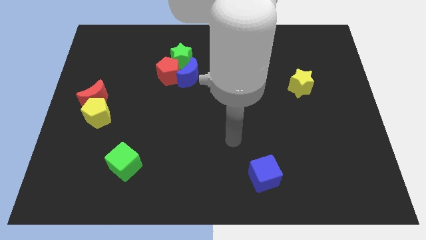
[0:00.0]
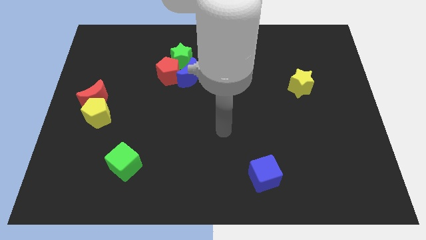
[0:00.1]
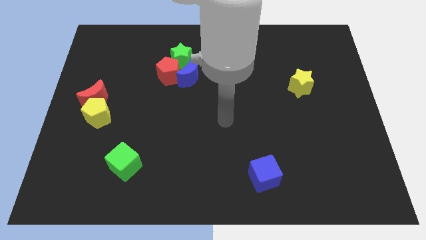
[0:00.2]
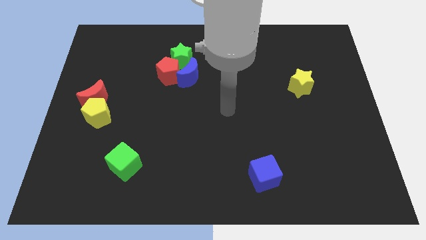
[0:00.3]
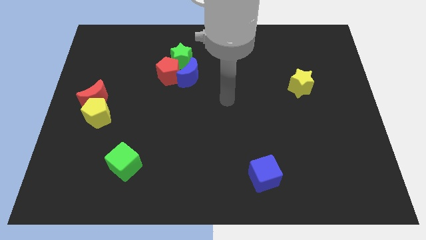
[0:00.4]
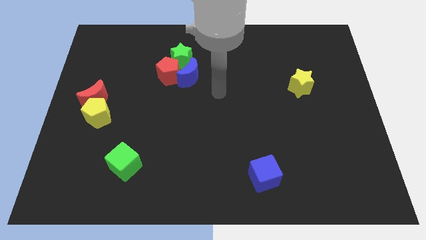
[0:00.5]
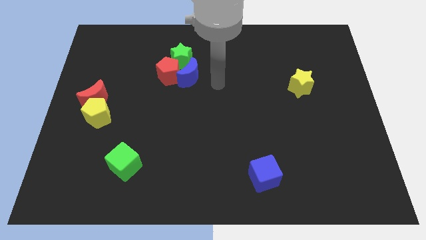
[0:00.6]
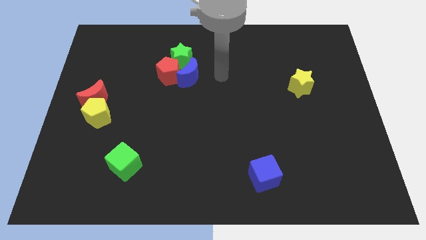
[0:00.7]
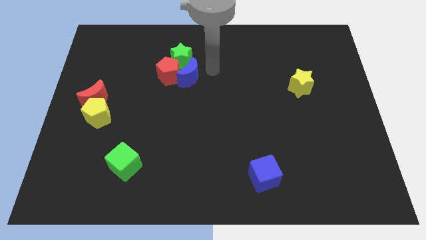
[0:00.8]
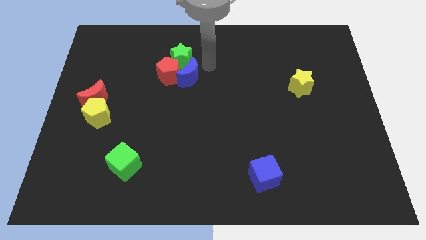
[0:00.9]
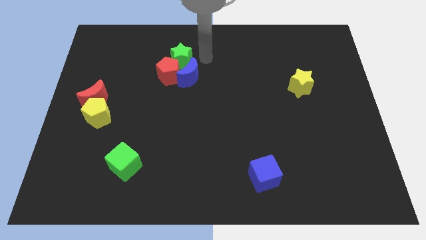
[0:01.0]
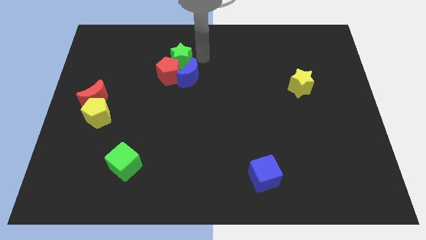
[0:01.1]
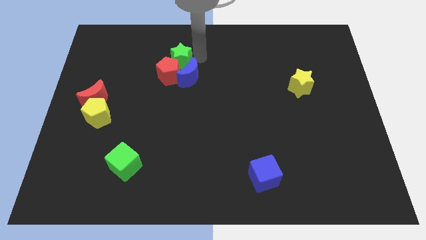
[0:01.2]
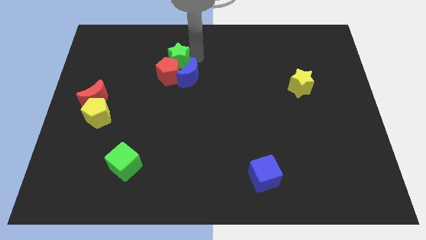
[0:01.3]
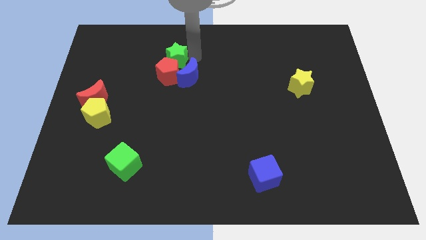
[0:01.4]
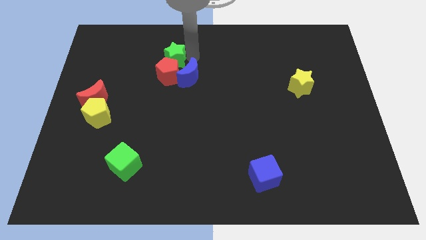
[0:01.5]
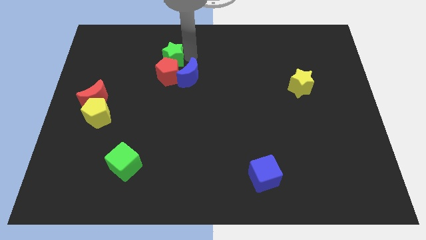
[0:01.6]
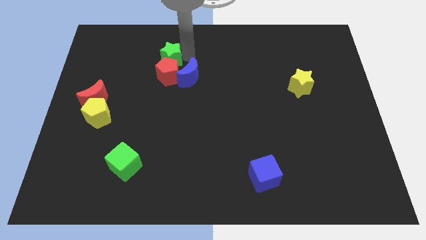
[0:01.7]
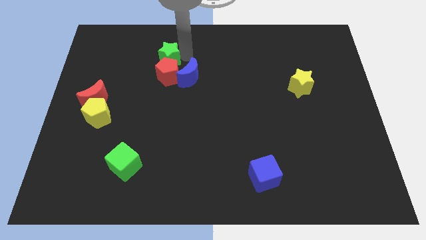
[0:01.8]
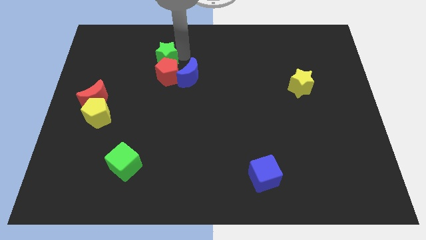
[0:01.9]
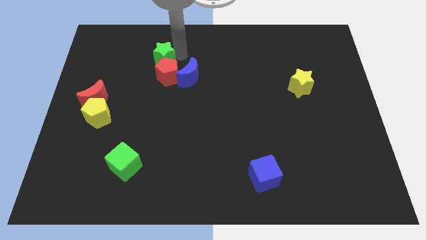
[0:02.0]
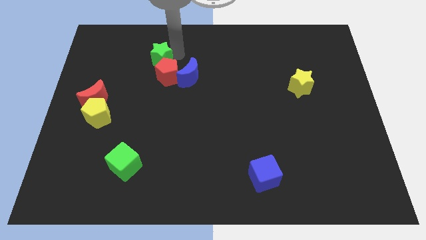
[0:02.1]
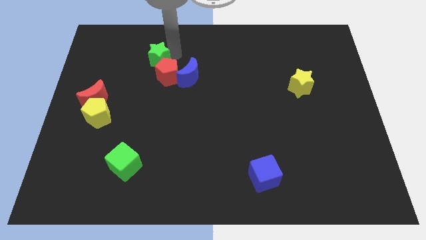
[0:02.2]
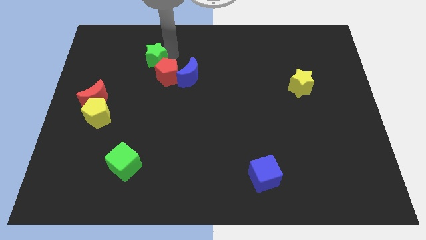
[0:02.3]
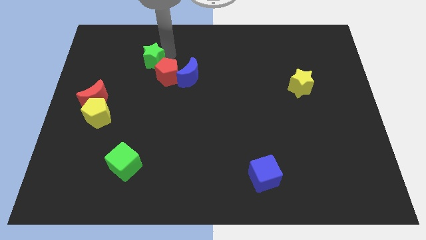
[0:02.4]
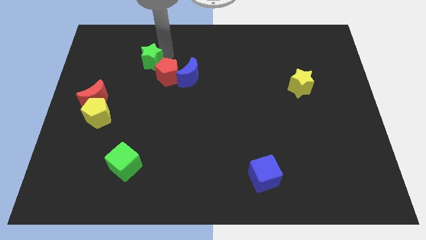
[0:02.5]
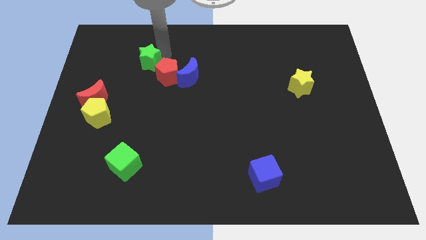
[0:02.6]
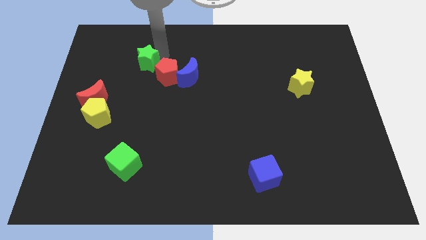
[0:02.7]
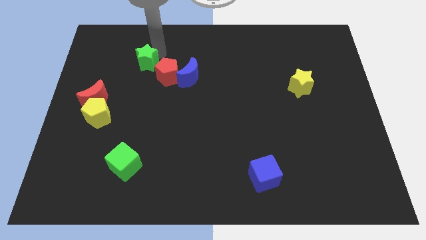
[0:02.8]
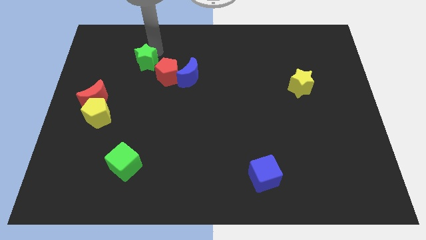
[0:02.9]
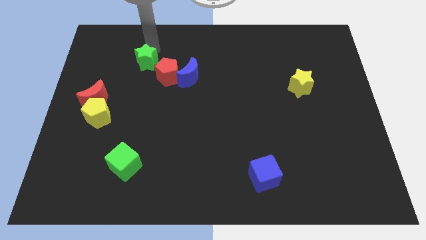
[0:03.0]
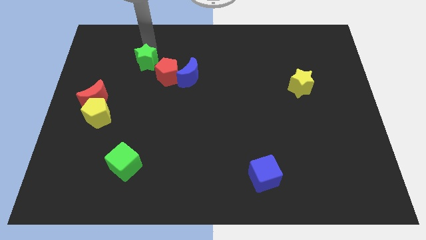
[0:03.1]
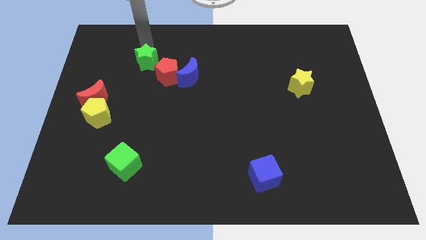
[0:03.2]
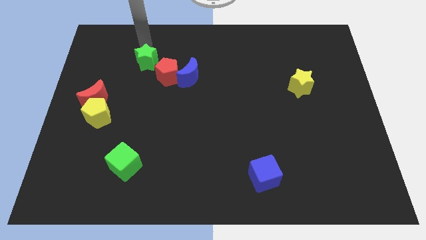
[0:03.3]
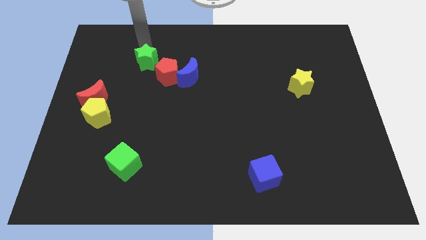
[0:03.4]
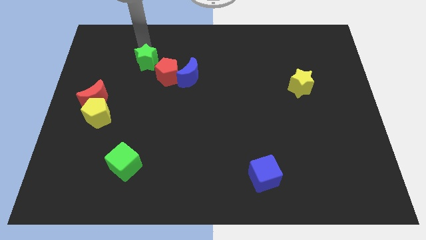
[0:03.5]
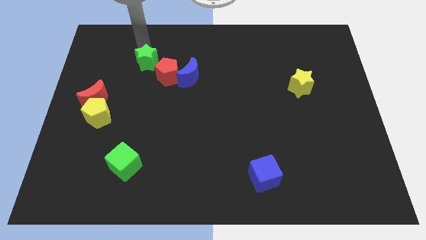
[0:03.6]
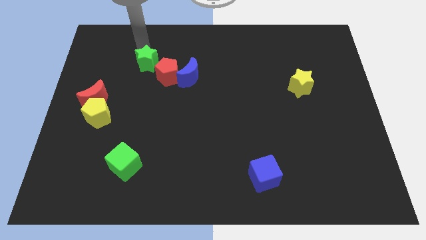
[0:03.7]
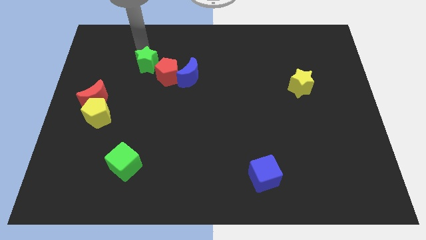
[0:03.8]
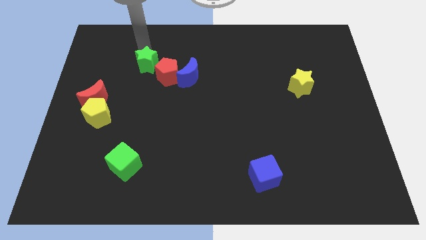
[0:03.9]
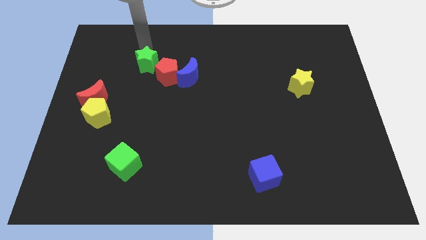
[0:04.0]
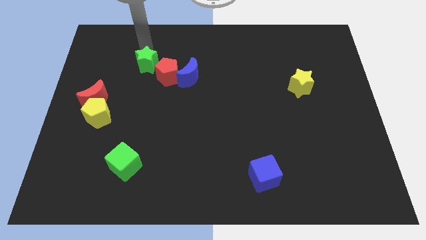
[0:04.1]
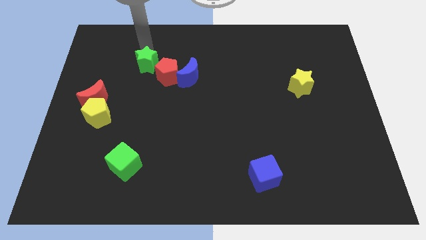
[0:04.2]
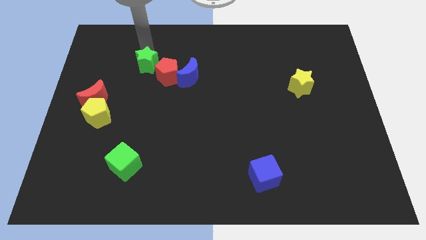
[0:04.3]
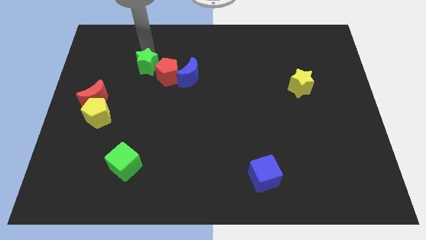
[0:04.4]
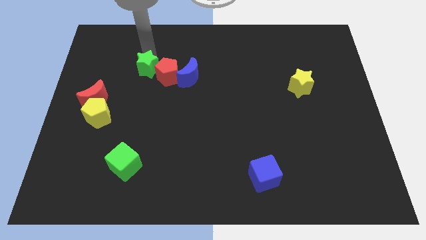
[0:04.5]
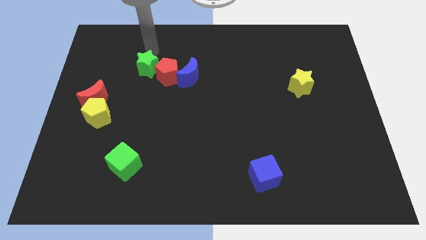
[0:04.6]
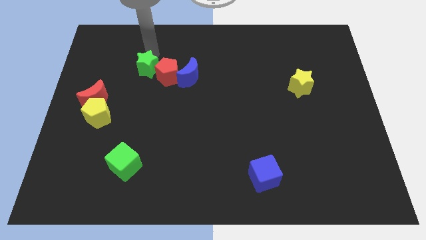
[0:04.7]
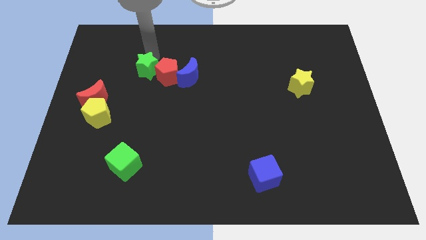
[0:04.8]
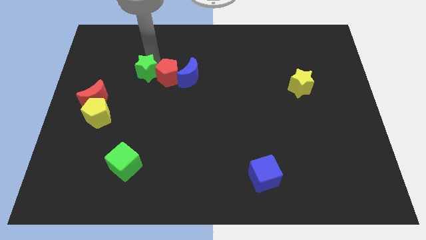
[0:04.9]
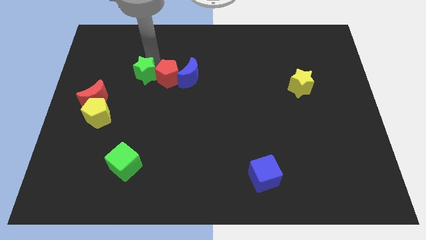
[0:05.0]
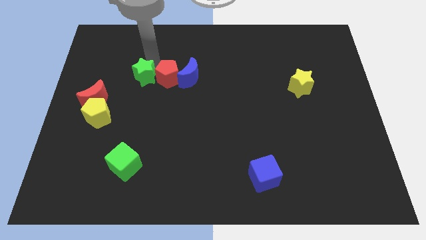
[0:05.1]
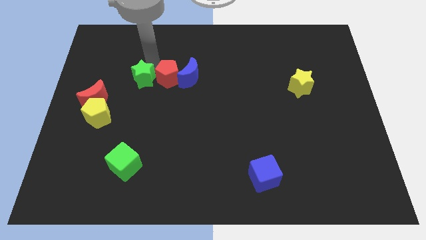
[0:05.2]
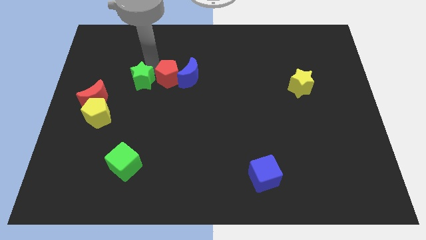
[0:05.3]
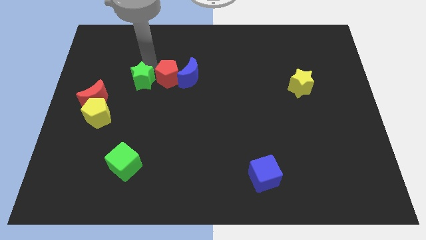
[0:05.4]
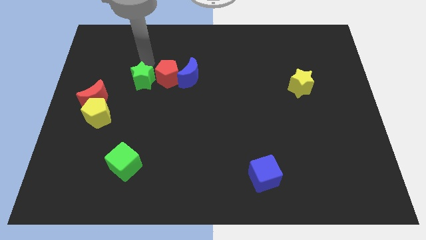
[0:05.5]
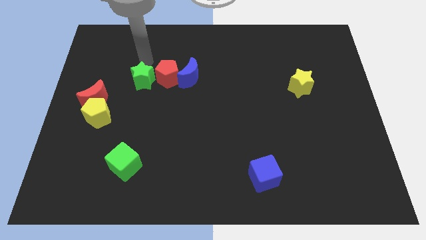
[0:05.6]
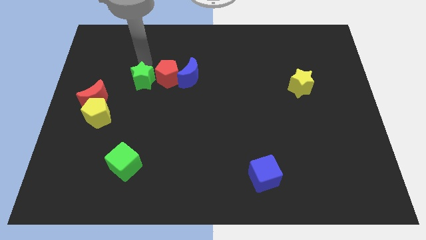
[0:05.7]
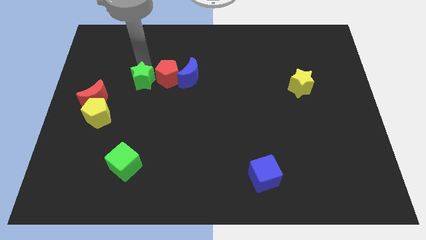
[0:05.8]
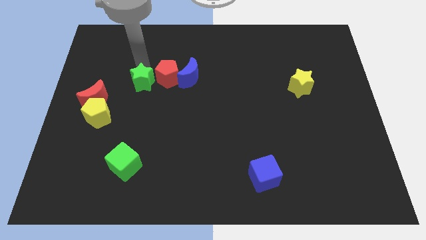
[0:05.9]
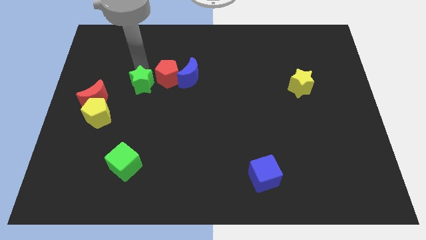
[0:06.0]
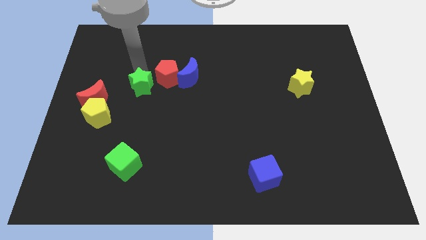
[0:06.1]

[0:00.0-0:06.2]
move the green star to the right side of the red moon

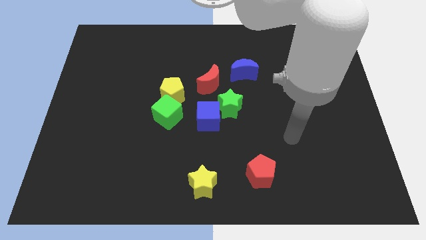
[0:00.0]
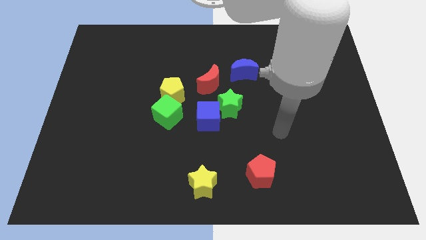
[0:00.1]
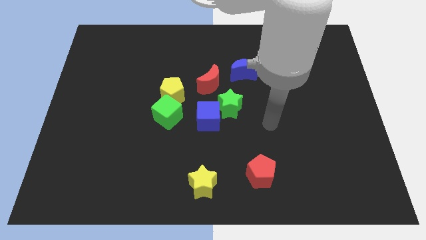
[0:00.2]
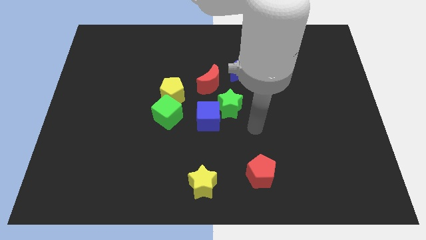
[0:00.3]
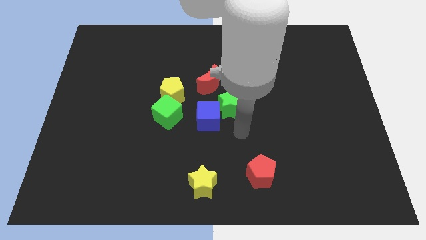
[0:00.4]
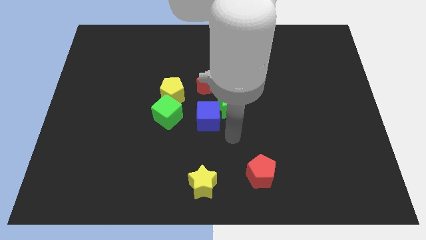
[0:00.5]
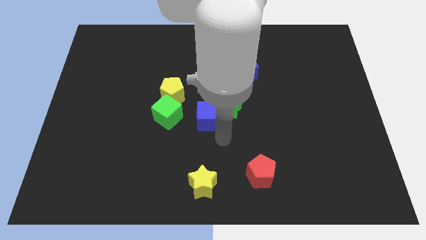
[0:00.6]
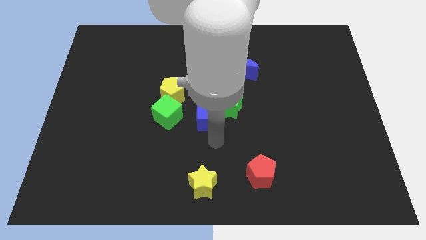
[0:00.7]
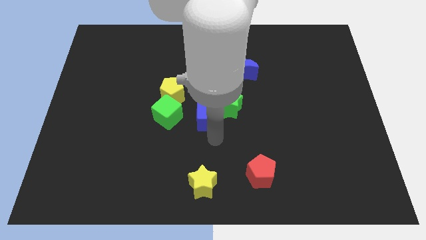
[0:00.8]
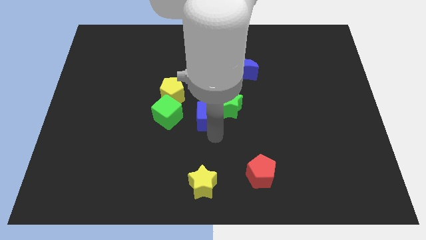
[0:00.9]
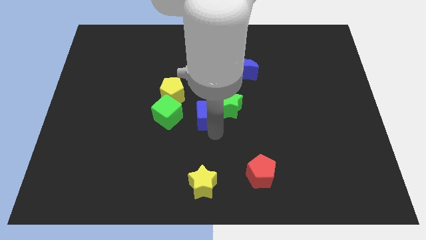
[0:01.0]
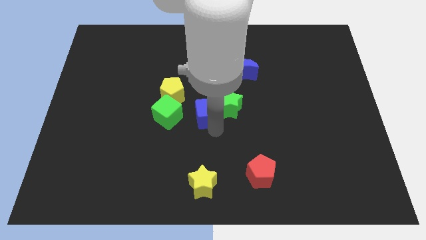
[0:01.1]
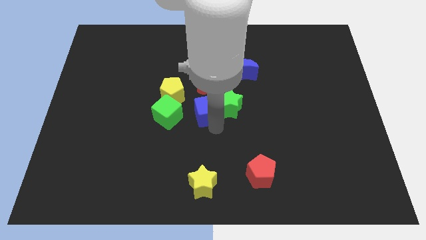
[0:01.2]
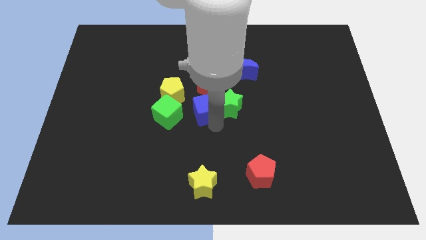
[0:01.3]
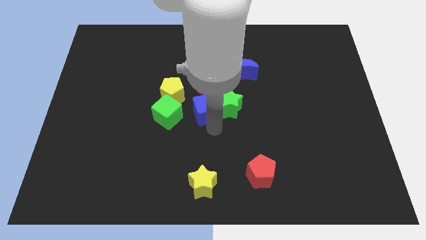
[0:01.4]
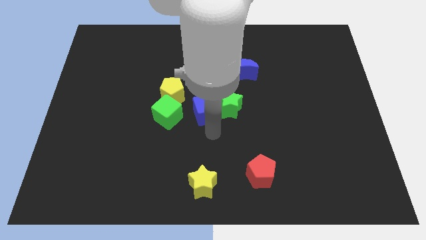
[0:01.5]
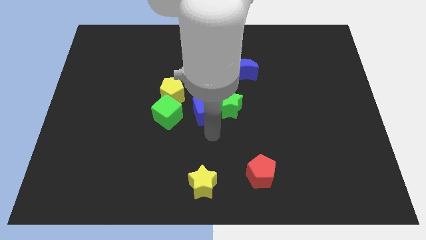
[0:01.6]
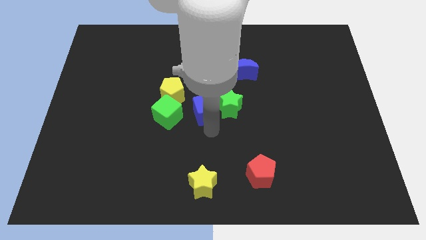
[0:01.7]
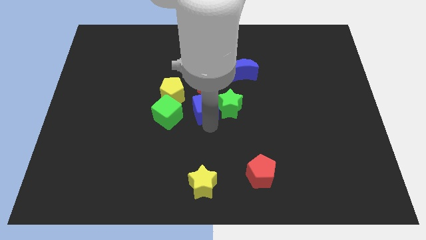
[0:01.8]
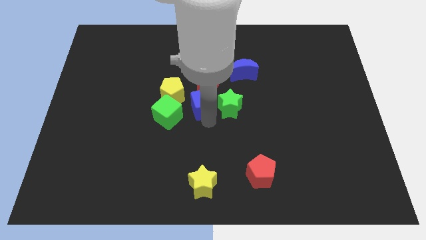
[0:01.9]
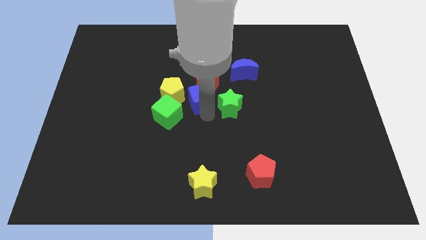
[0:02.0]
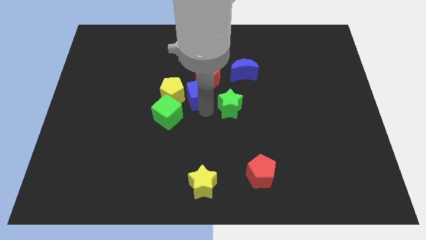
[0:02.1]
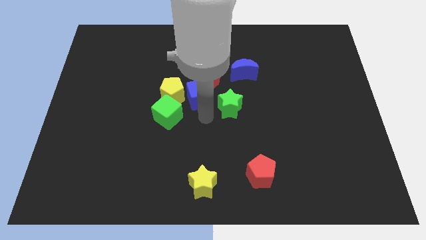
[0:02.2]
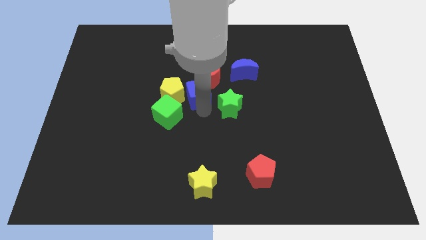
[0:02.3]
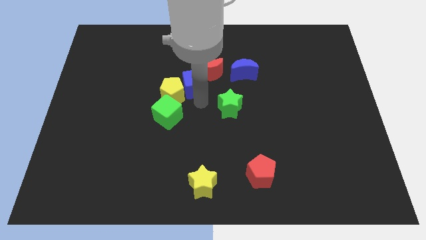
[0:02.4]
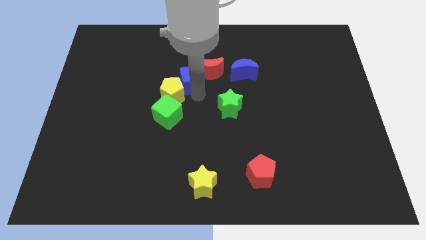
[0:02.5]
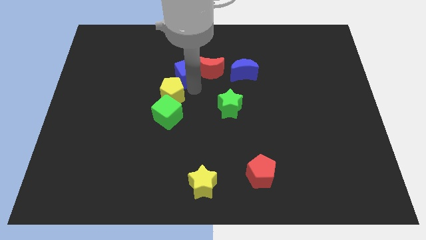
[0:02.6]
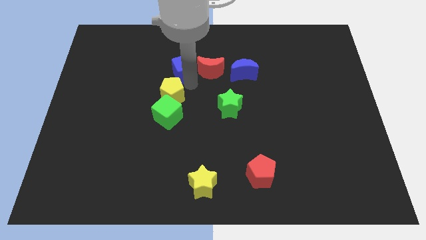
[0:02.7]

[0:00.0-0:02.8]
push the blue cube diagonally up and to the left of the red moon
